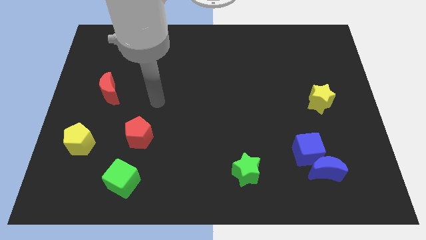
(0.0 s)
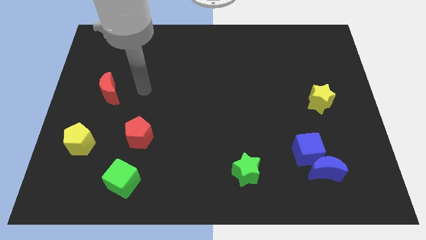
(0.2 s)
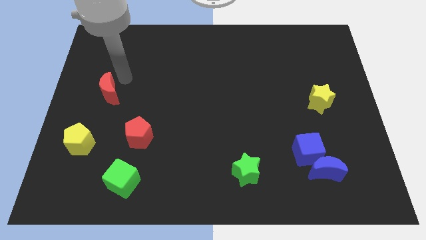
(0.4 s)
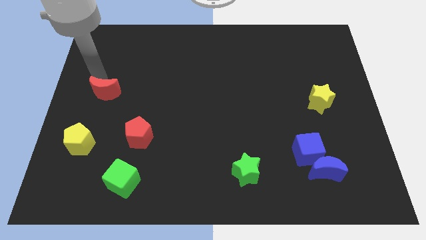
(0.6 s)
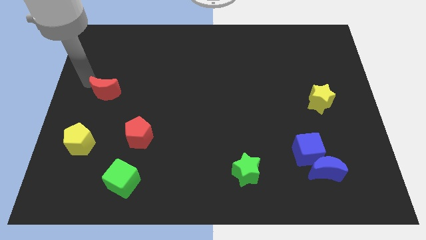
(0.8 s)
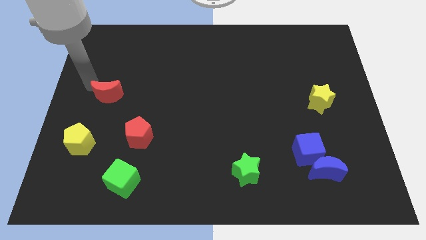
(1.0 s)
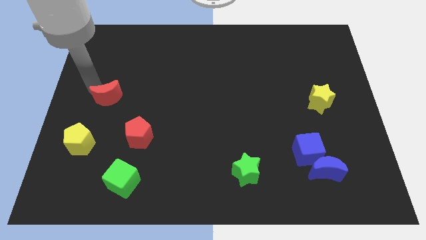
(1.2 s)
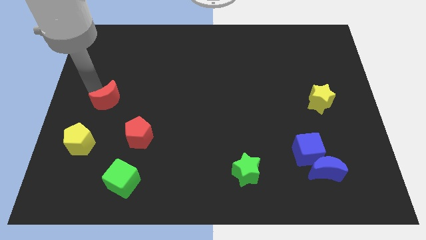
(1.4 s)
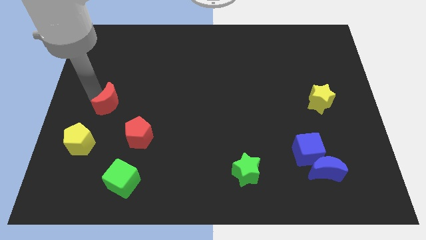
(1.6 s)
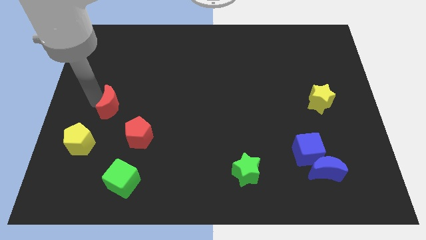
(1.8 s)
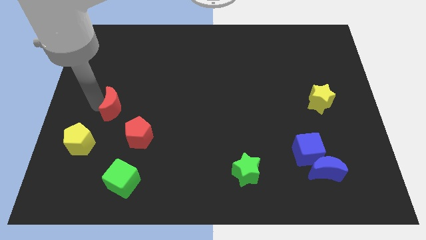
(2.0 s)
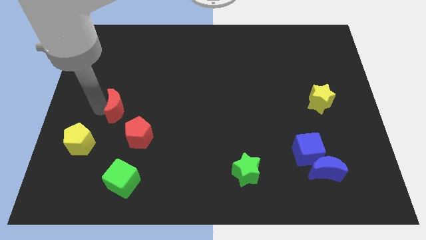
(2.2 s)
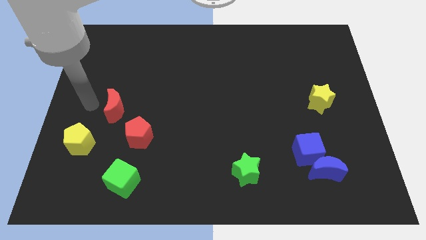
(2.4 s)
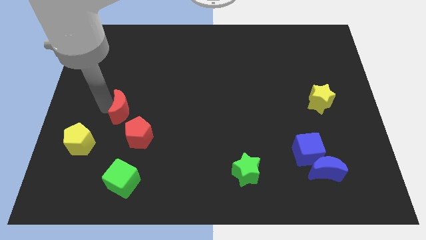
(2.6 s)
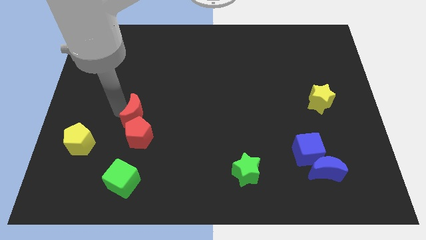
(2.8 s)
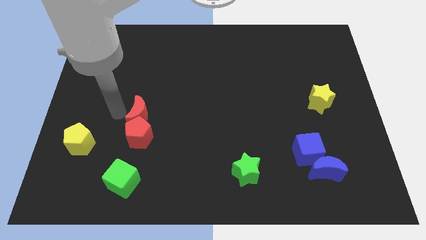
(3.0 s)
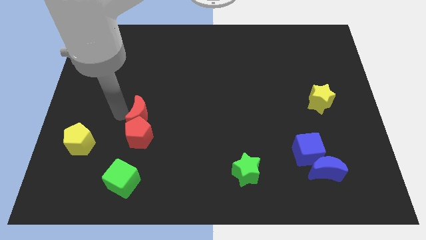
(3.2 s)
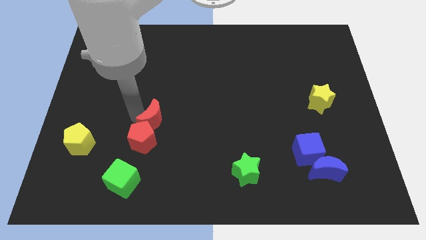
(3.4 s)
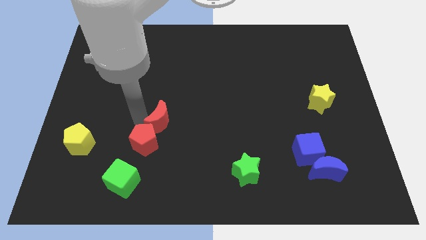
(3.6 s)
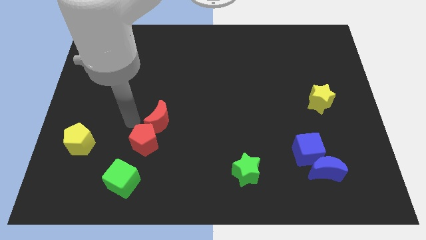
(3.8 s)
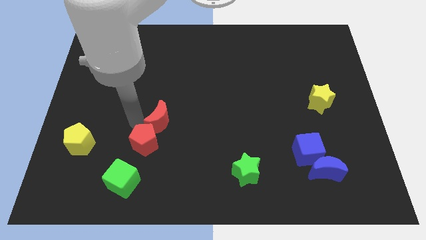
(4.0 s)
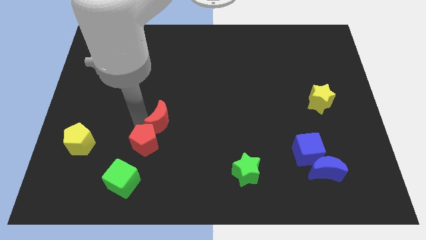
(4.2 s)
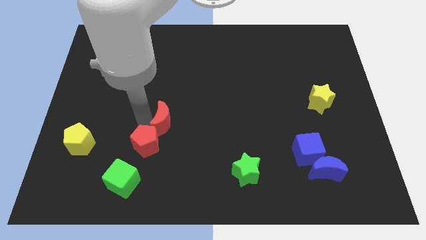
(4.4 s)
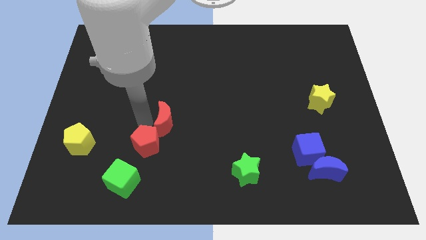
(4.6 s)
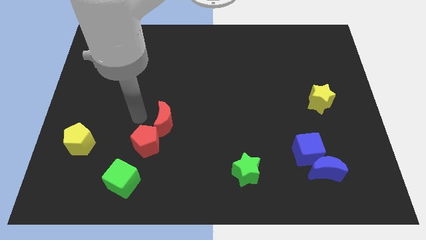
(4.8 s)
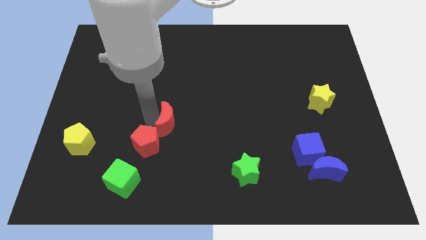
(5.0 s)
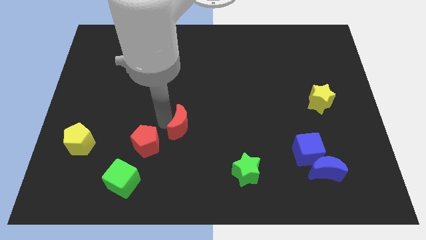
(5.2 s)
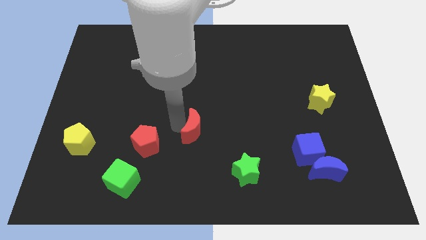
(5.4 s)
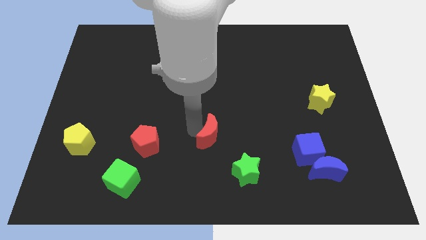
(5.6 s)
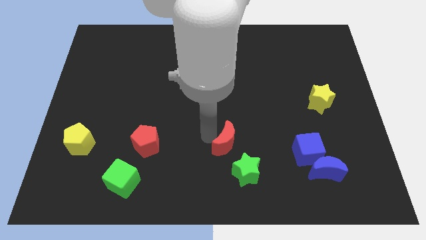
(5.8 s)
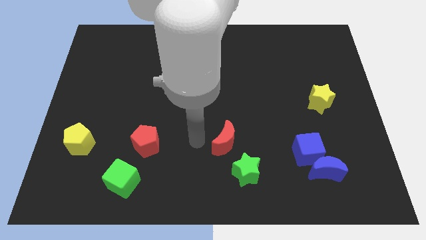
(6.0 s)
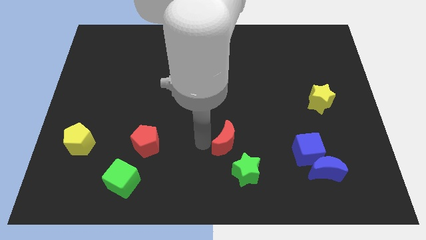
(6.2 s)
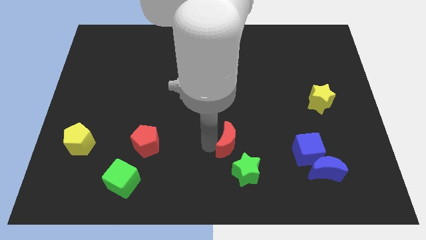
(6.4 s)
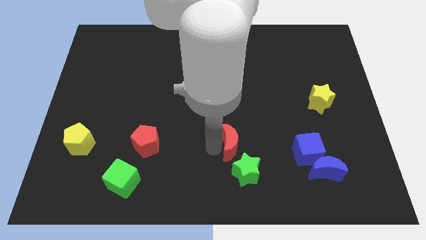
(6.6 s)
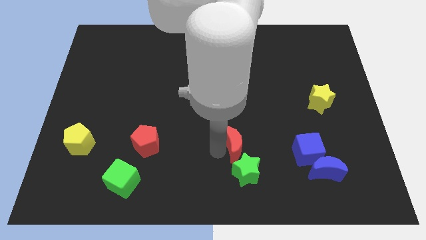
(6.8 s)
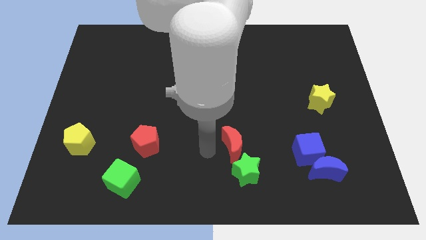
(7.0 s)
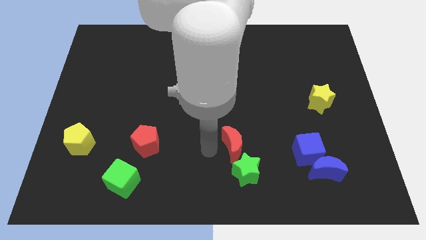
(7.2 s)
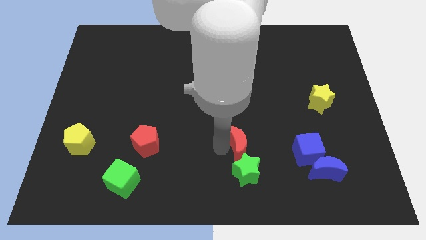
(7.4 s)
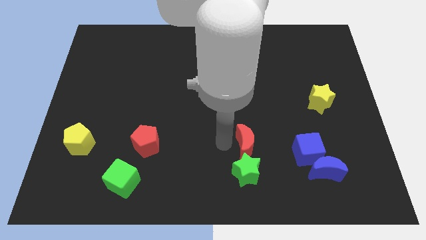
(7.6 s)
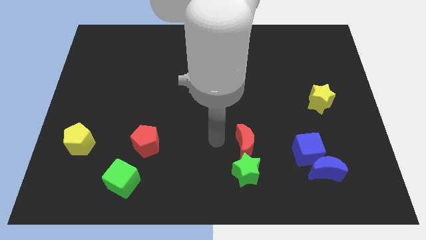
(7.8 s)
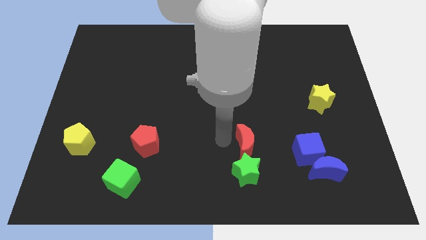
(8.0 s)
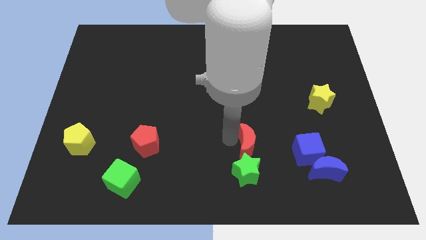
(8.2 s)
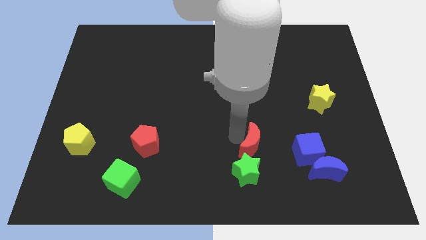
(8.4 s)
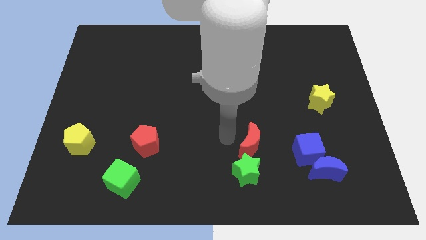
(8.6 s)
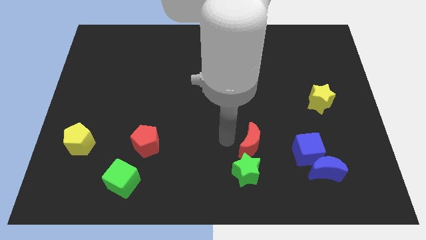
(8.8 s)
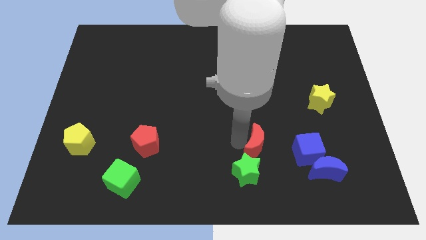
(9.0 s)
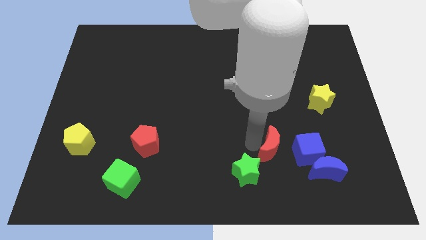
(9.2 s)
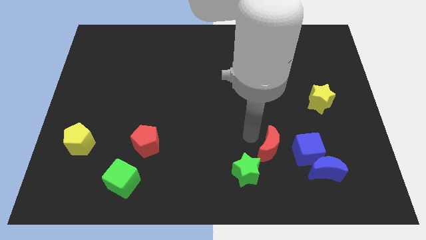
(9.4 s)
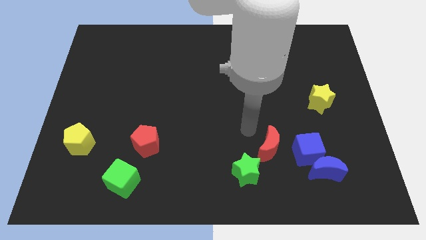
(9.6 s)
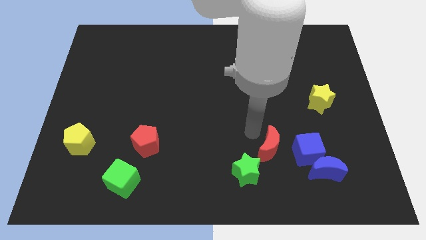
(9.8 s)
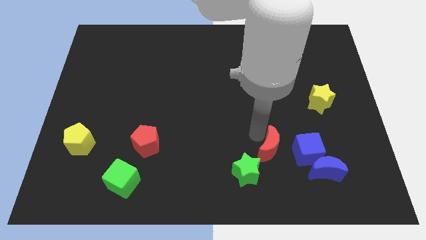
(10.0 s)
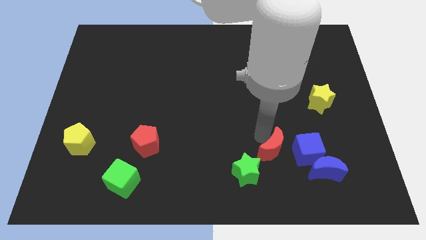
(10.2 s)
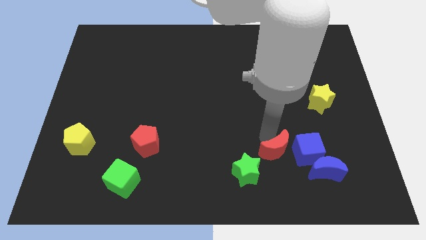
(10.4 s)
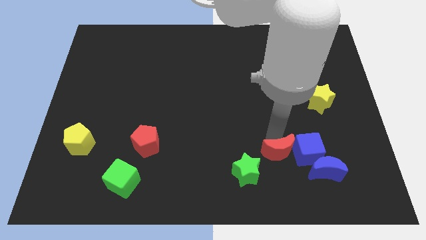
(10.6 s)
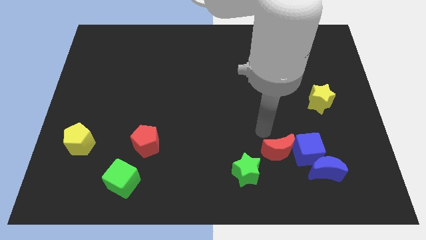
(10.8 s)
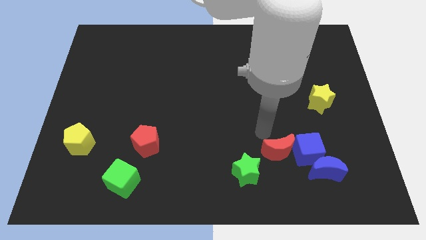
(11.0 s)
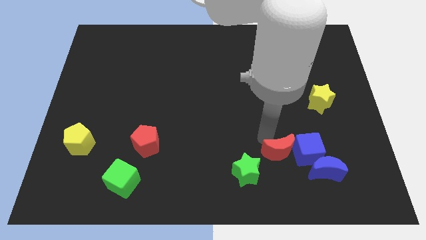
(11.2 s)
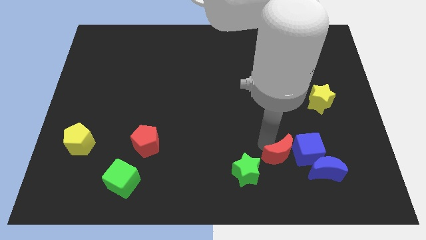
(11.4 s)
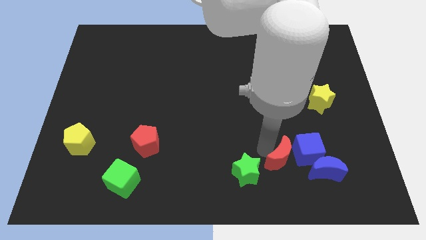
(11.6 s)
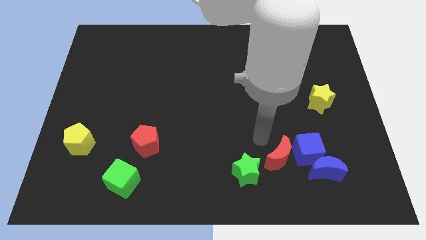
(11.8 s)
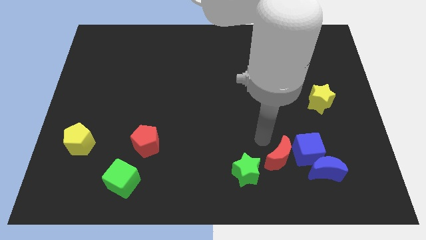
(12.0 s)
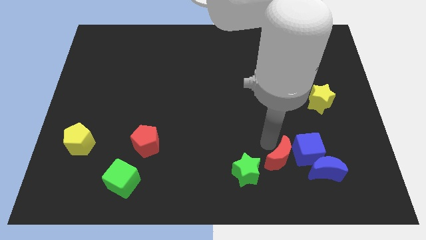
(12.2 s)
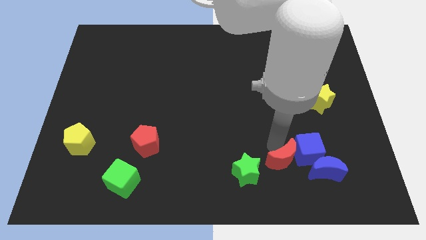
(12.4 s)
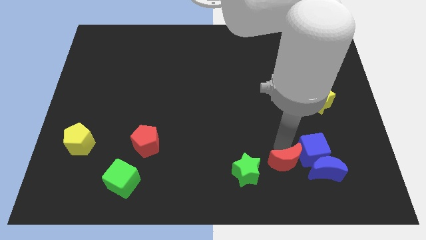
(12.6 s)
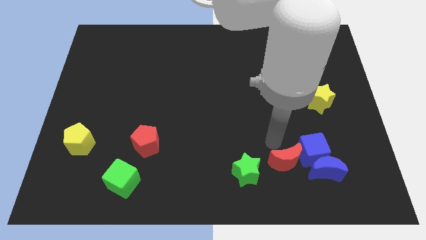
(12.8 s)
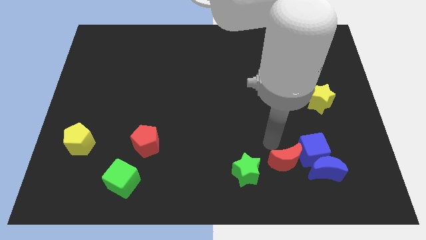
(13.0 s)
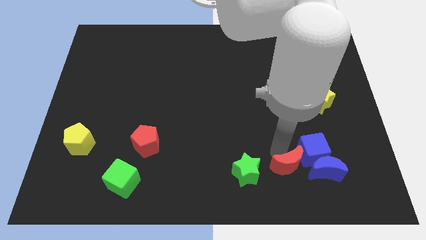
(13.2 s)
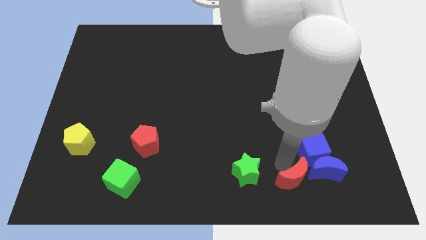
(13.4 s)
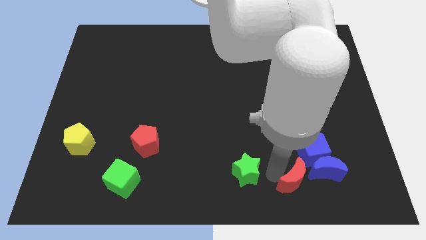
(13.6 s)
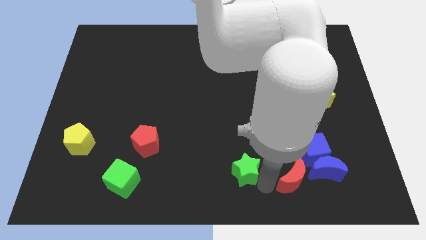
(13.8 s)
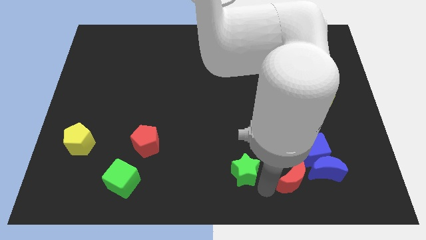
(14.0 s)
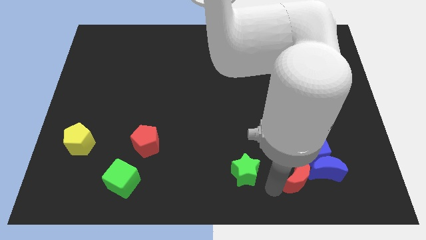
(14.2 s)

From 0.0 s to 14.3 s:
slide the red moon to the blue moon
